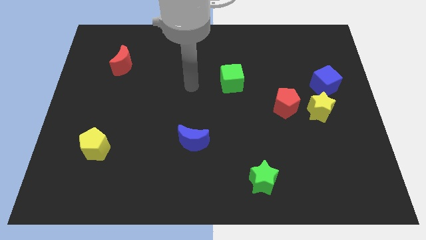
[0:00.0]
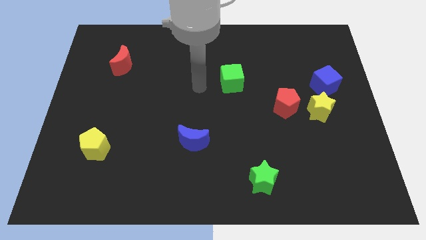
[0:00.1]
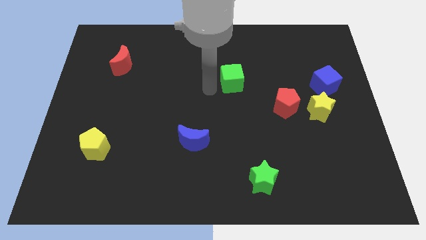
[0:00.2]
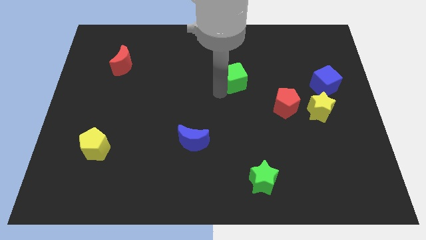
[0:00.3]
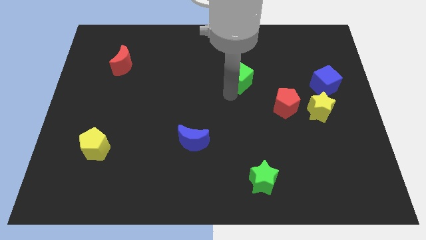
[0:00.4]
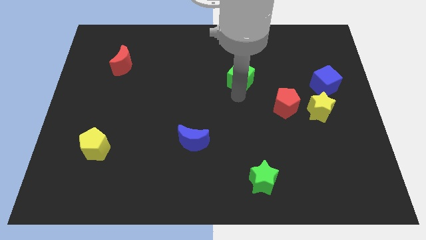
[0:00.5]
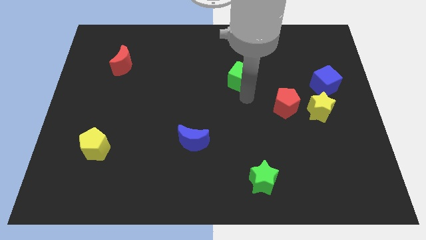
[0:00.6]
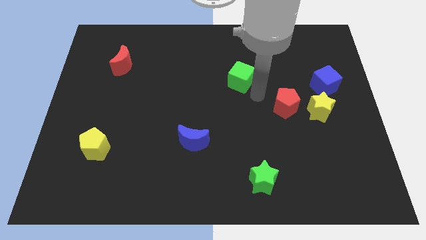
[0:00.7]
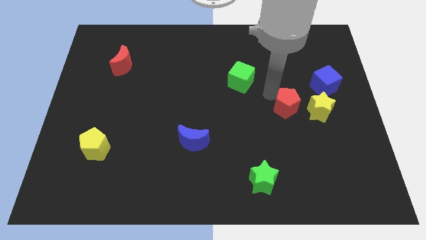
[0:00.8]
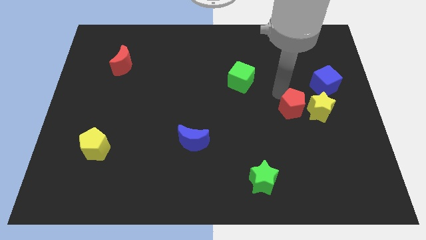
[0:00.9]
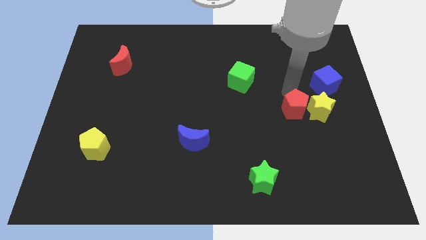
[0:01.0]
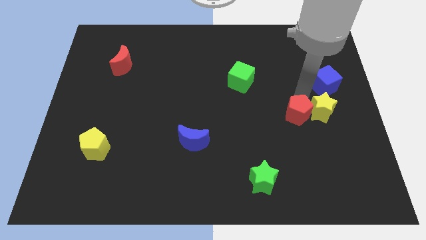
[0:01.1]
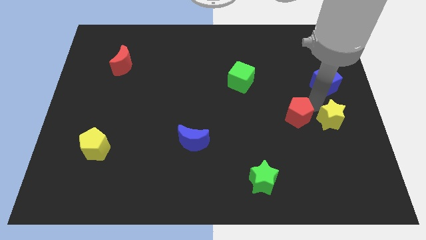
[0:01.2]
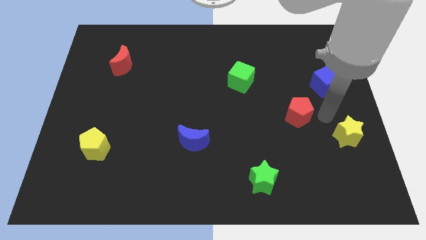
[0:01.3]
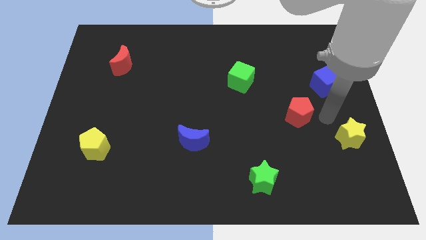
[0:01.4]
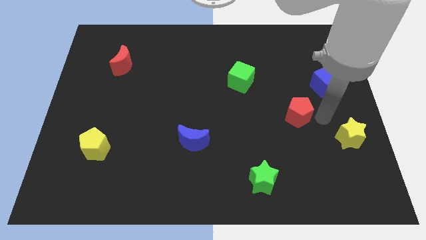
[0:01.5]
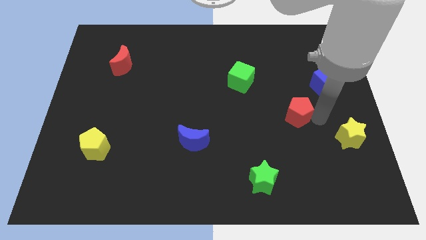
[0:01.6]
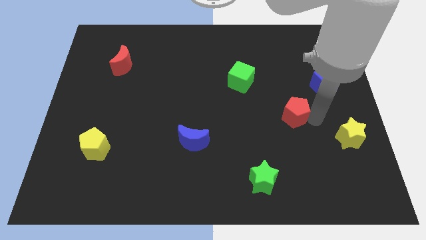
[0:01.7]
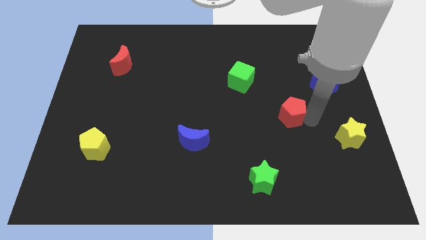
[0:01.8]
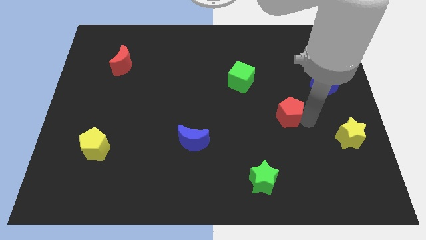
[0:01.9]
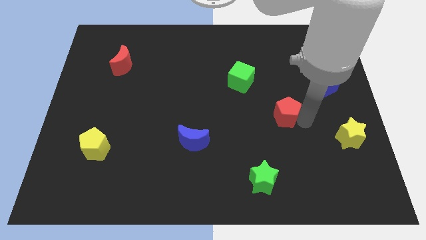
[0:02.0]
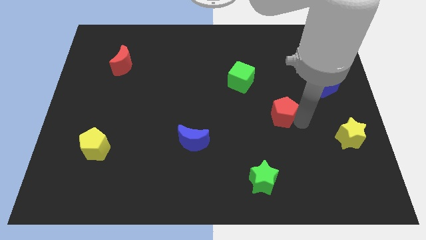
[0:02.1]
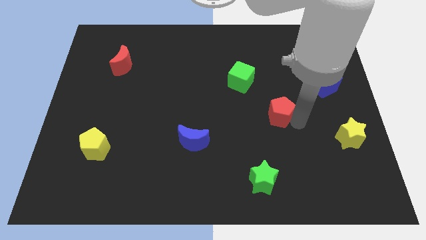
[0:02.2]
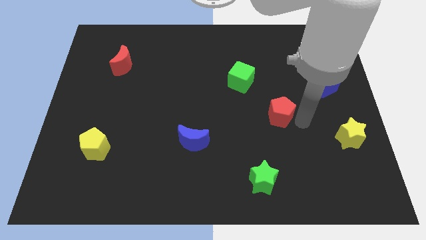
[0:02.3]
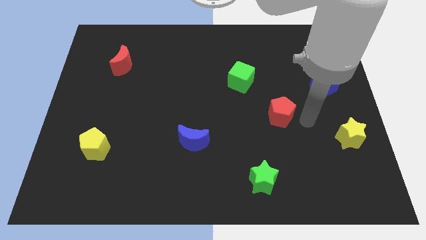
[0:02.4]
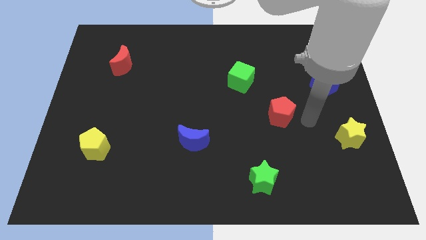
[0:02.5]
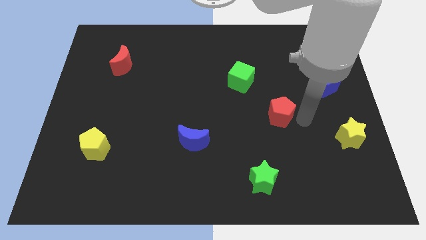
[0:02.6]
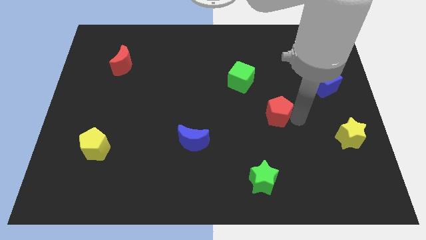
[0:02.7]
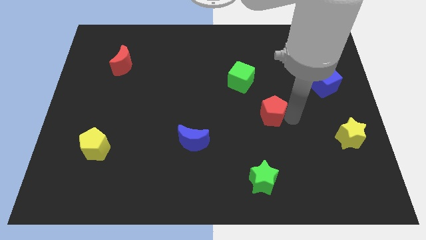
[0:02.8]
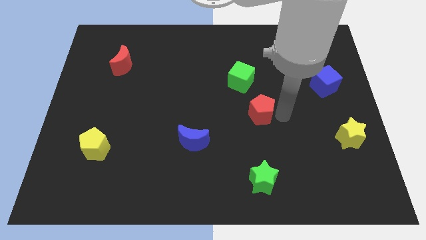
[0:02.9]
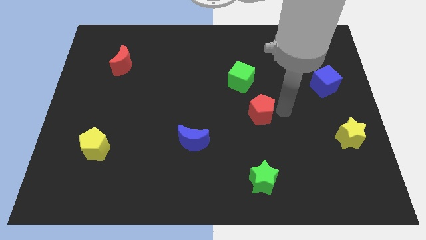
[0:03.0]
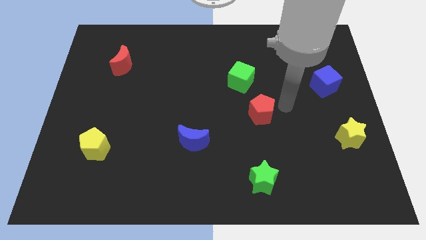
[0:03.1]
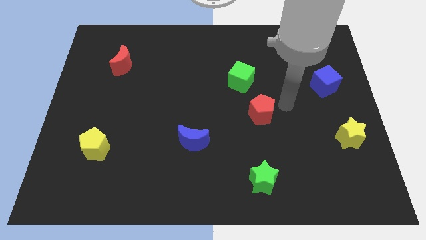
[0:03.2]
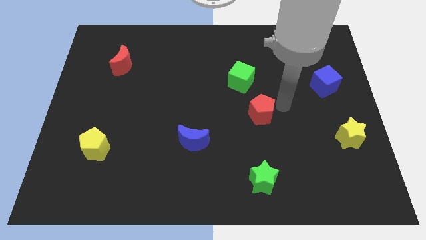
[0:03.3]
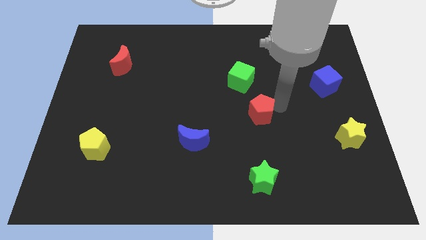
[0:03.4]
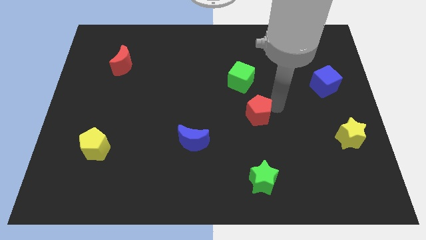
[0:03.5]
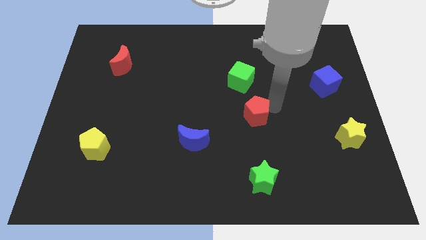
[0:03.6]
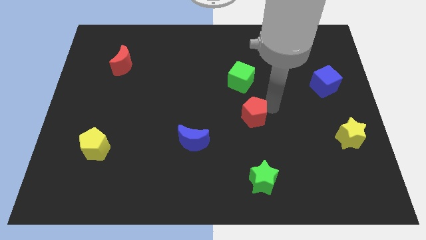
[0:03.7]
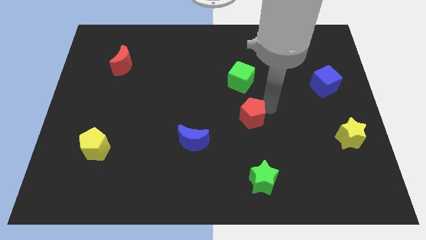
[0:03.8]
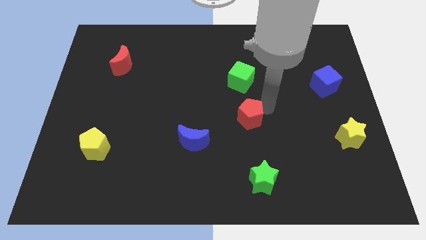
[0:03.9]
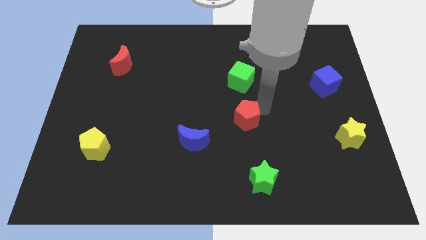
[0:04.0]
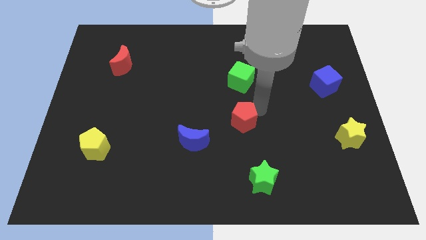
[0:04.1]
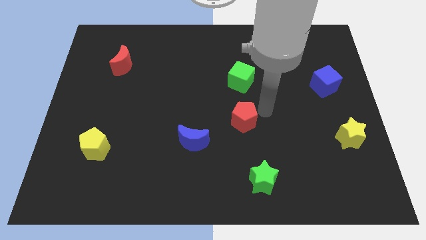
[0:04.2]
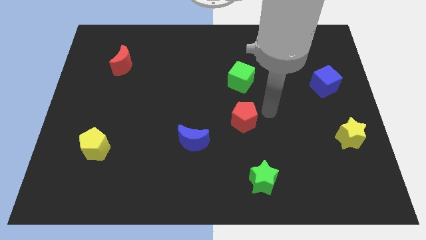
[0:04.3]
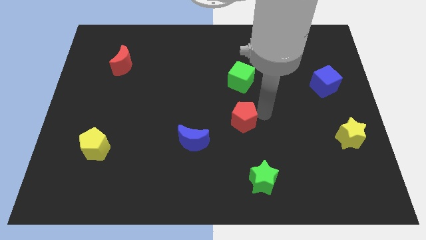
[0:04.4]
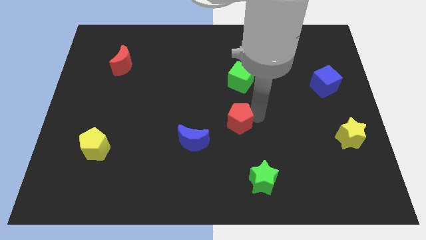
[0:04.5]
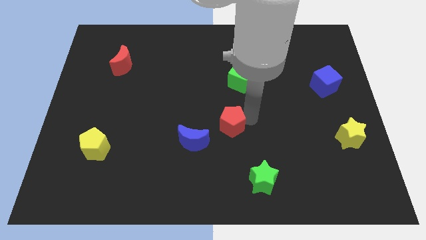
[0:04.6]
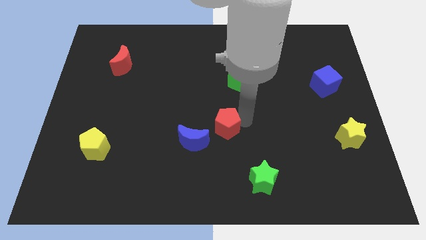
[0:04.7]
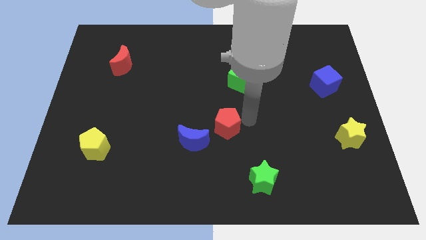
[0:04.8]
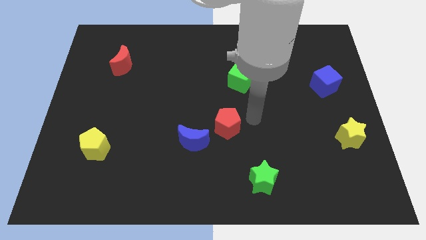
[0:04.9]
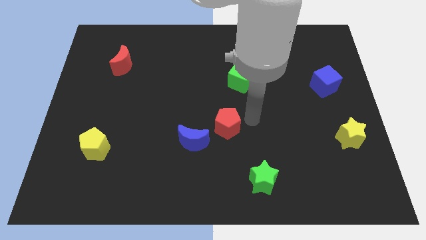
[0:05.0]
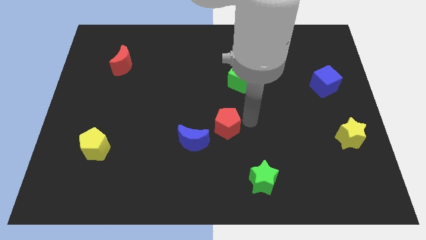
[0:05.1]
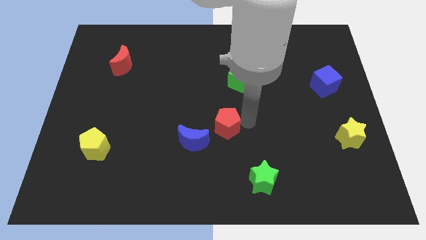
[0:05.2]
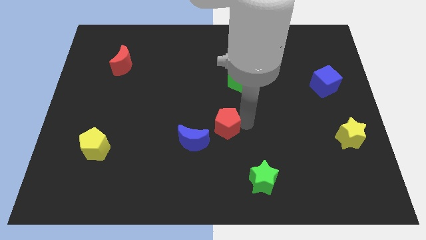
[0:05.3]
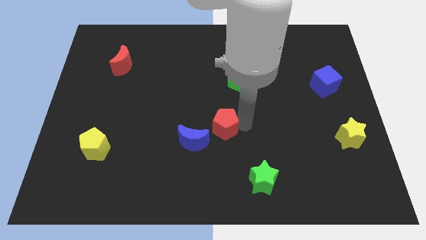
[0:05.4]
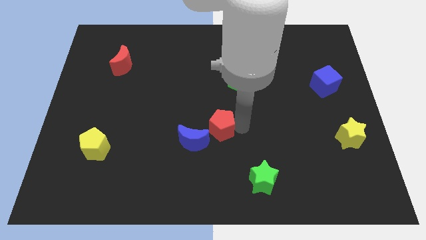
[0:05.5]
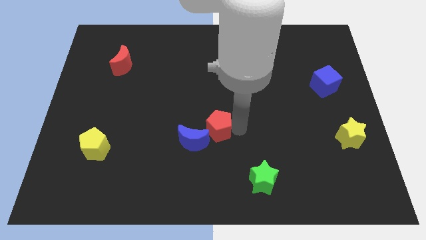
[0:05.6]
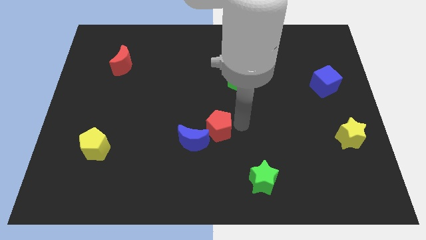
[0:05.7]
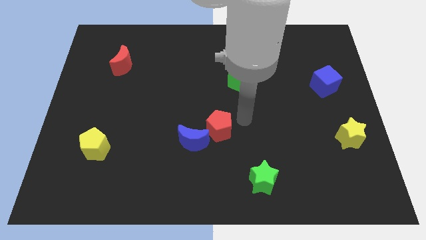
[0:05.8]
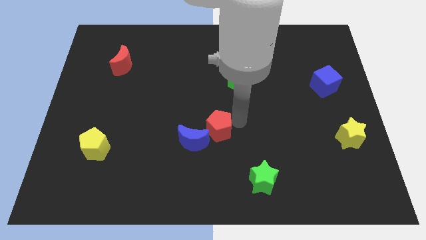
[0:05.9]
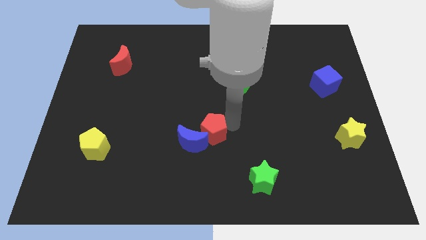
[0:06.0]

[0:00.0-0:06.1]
slide the red pentagon to the blue moon

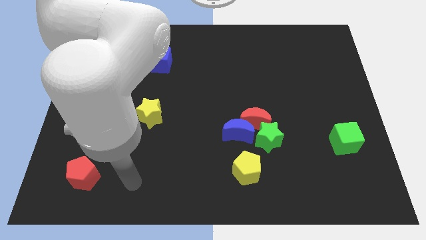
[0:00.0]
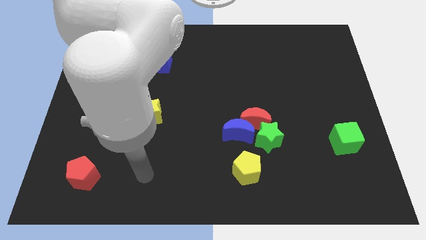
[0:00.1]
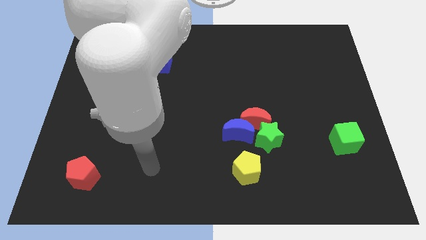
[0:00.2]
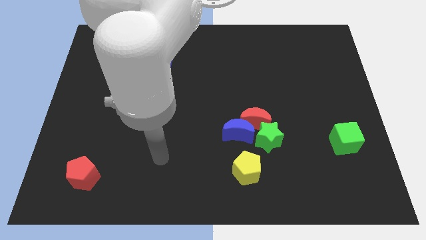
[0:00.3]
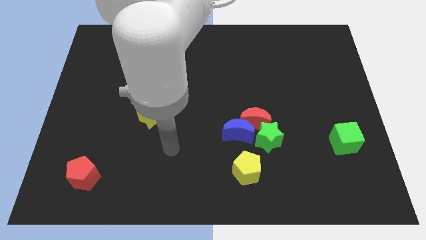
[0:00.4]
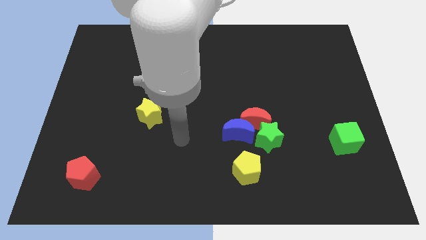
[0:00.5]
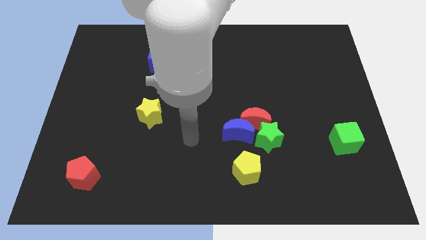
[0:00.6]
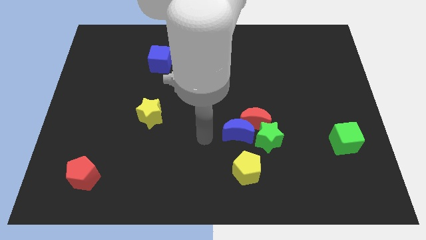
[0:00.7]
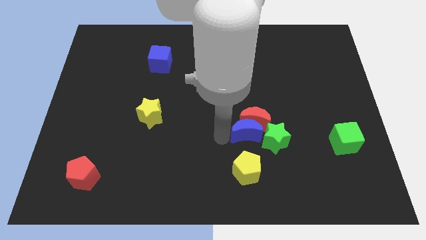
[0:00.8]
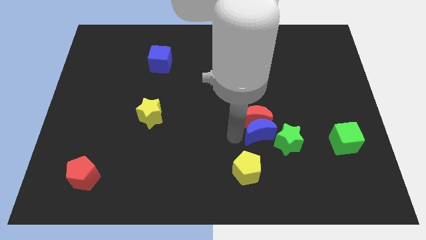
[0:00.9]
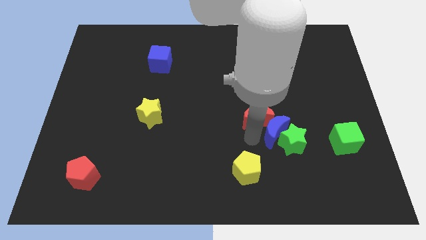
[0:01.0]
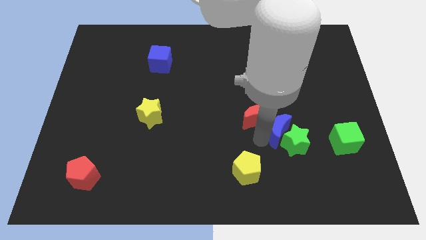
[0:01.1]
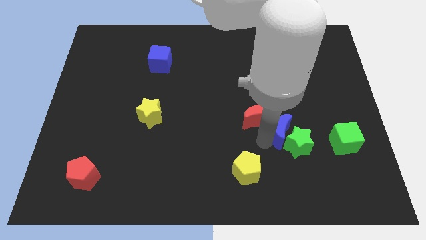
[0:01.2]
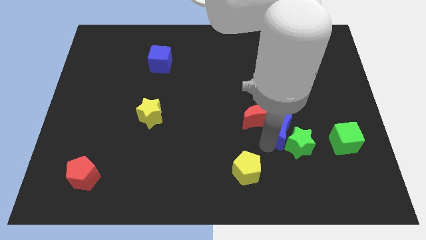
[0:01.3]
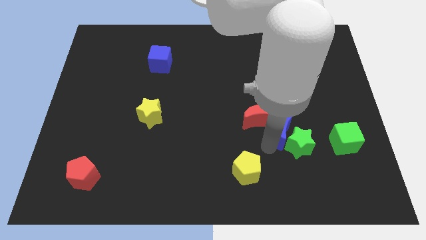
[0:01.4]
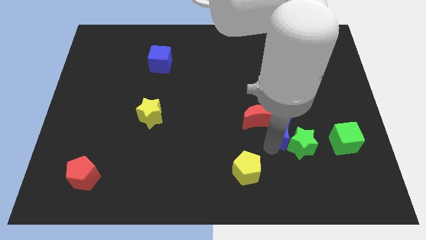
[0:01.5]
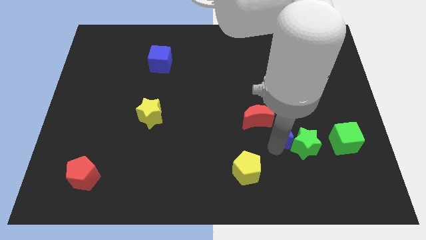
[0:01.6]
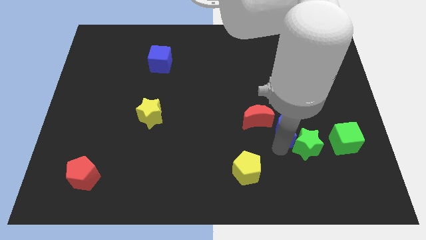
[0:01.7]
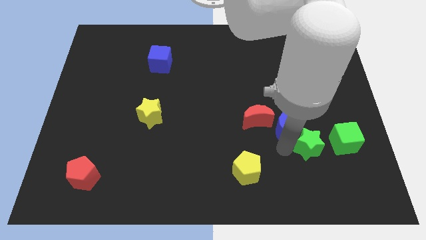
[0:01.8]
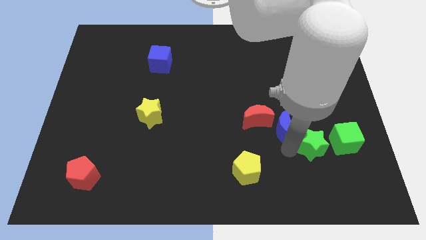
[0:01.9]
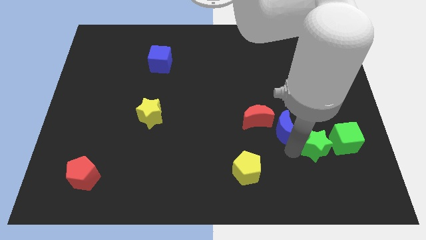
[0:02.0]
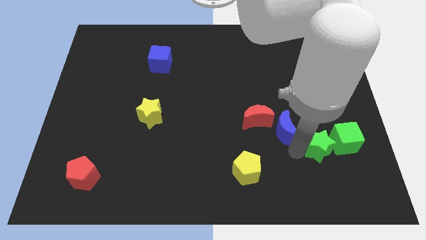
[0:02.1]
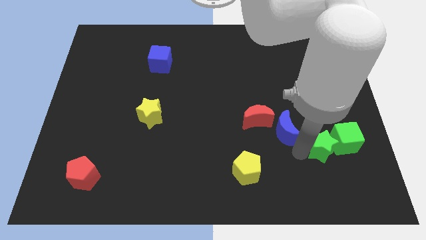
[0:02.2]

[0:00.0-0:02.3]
slide the green star next to the green cube
